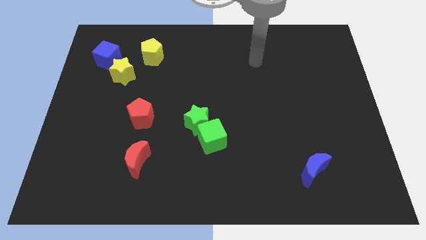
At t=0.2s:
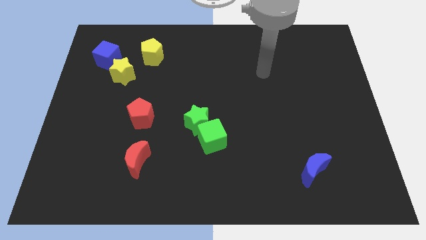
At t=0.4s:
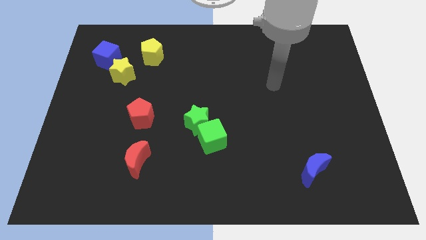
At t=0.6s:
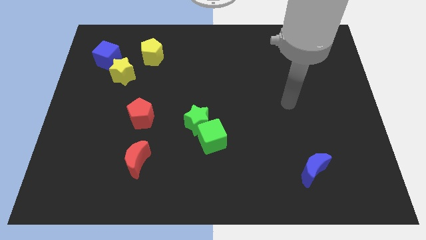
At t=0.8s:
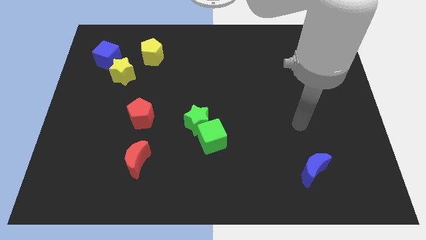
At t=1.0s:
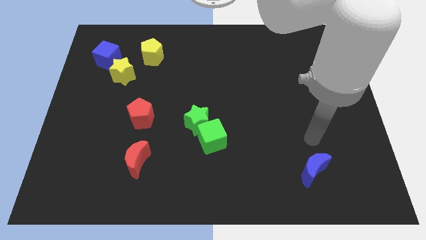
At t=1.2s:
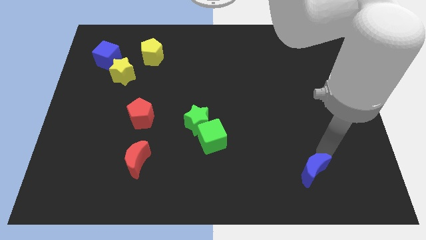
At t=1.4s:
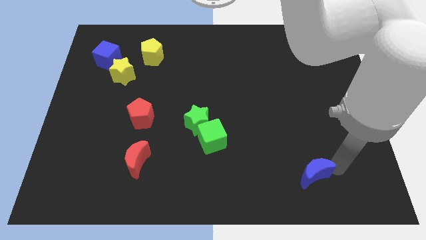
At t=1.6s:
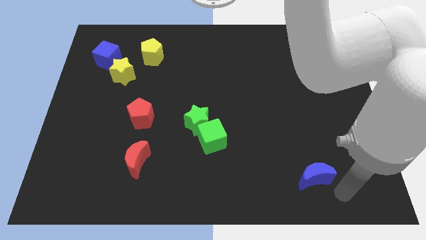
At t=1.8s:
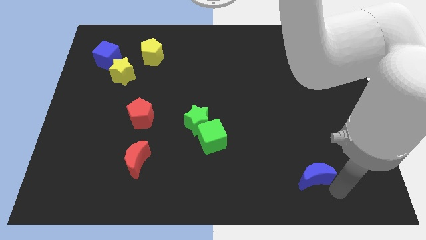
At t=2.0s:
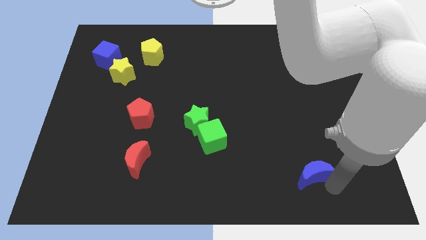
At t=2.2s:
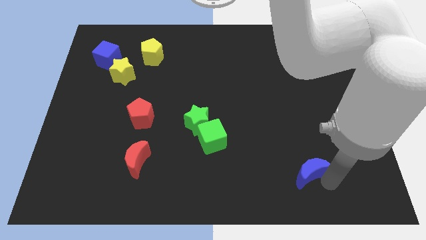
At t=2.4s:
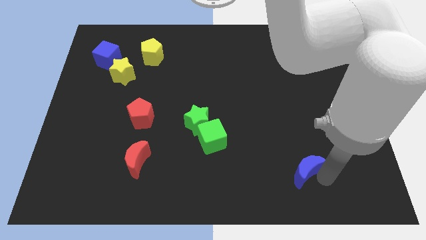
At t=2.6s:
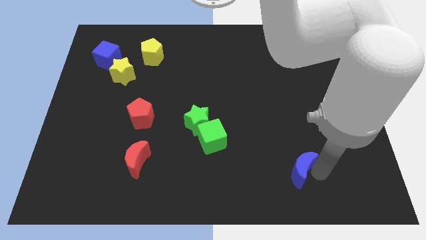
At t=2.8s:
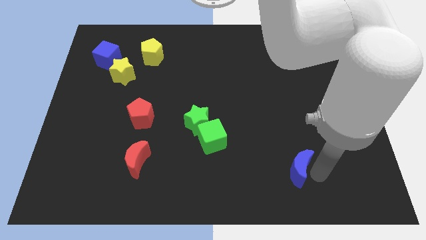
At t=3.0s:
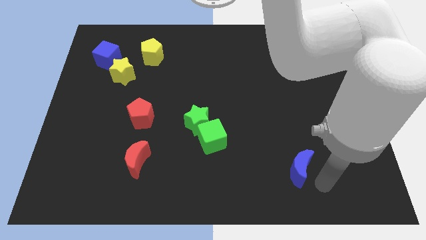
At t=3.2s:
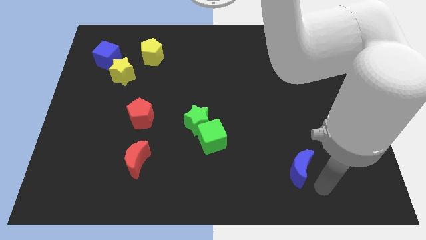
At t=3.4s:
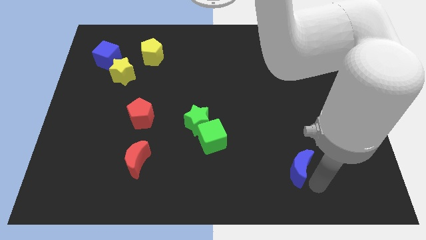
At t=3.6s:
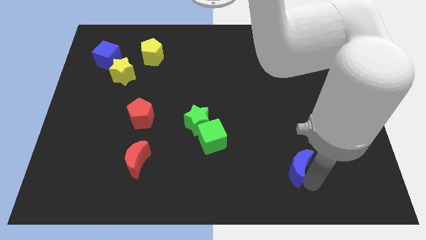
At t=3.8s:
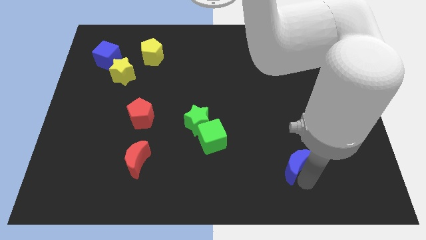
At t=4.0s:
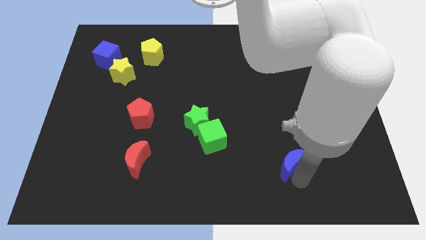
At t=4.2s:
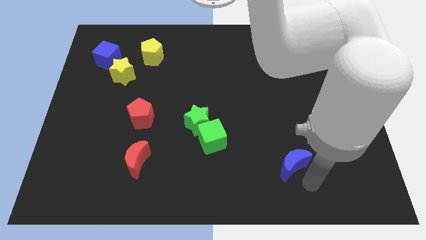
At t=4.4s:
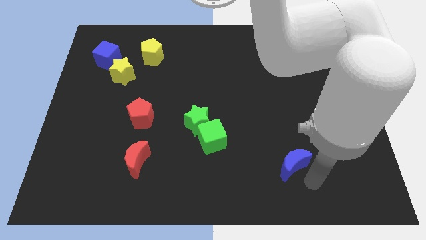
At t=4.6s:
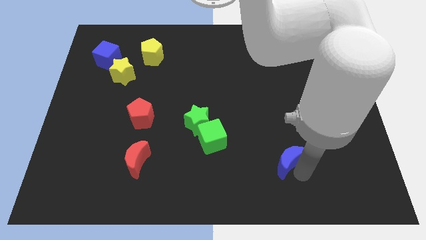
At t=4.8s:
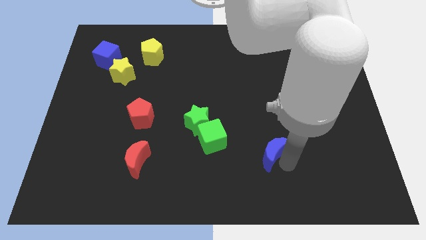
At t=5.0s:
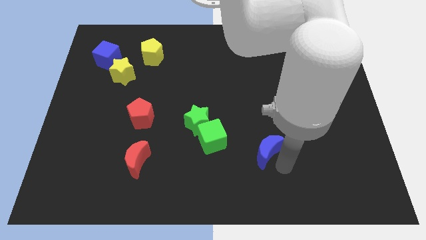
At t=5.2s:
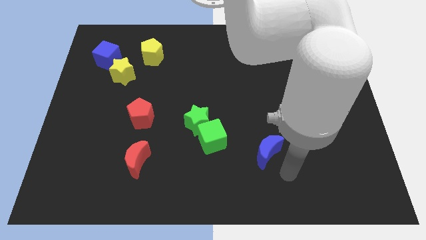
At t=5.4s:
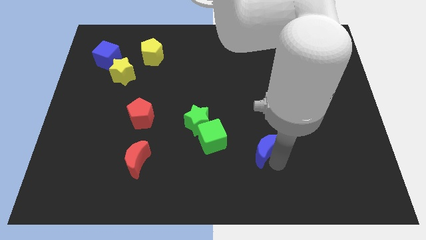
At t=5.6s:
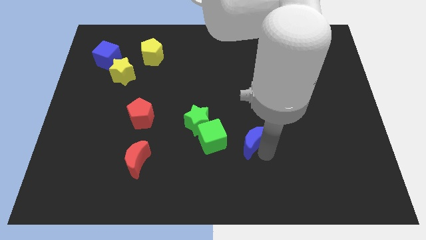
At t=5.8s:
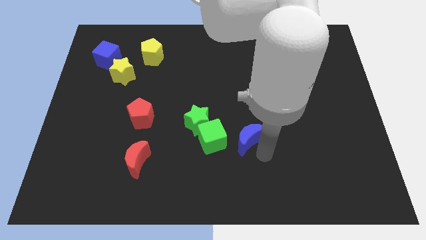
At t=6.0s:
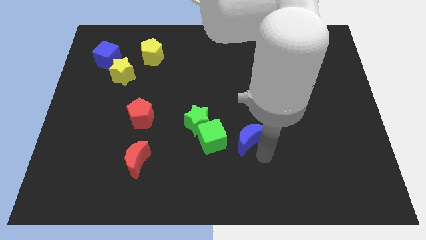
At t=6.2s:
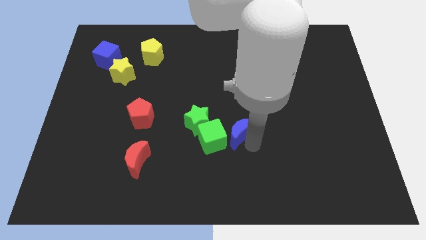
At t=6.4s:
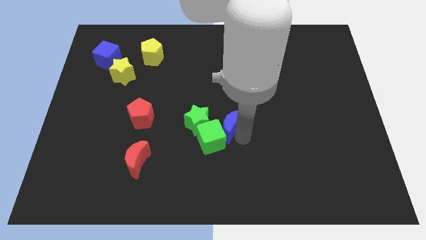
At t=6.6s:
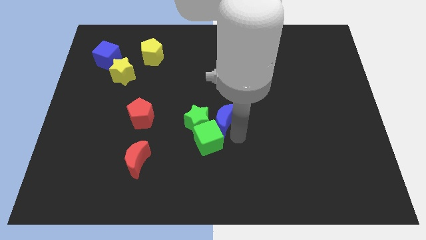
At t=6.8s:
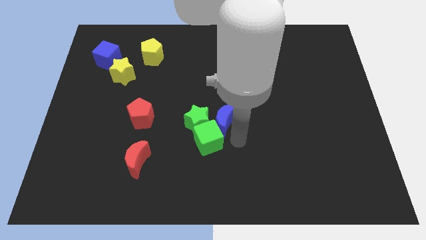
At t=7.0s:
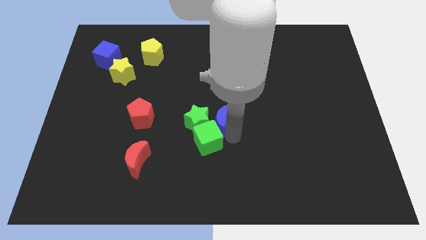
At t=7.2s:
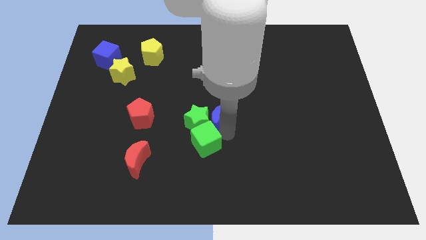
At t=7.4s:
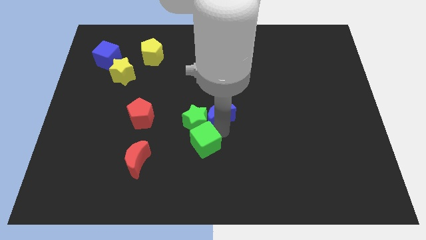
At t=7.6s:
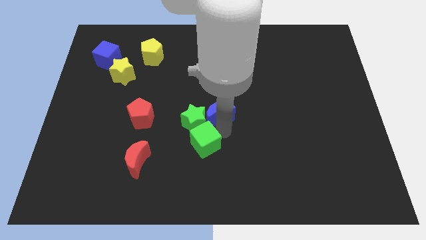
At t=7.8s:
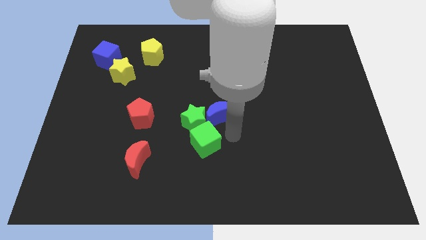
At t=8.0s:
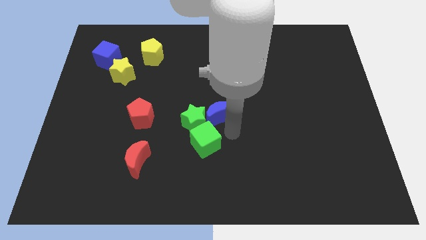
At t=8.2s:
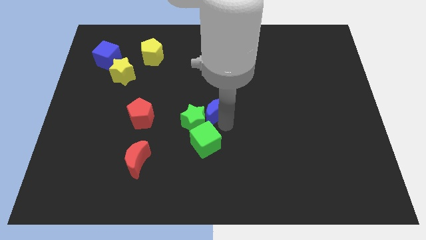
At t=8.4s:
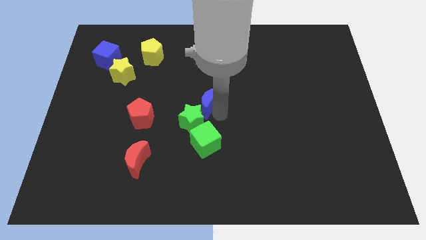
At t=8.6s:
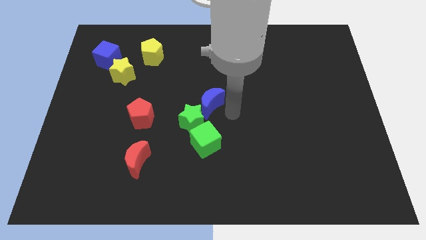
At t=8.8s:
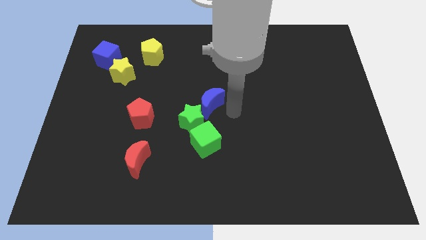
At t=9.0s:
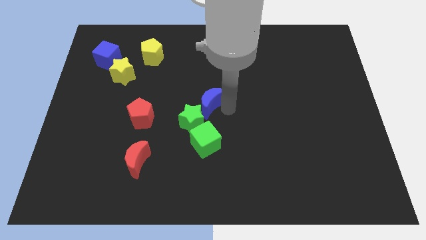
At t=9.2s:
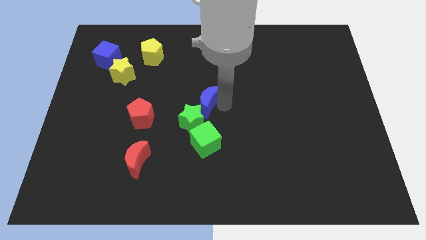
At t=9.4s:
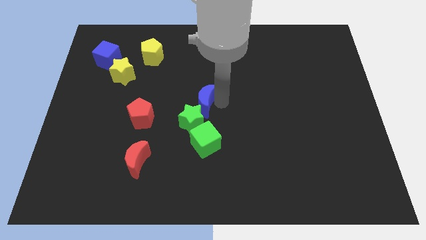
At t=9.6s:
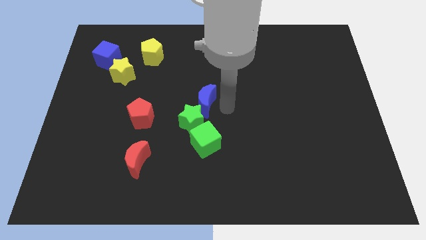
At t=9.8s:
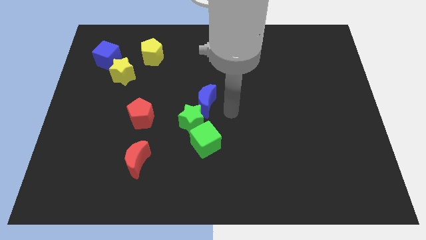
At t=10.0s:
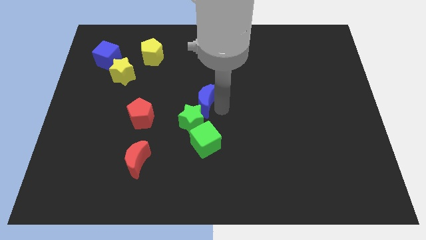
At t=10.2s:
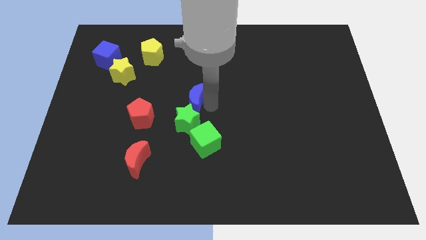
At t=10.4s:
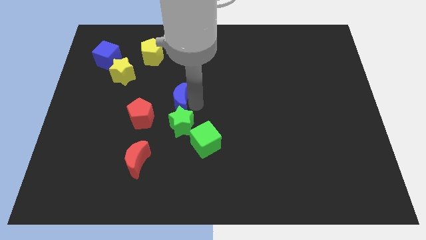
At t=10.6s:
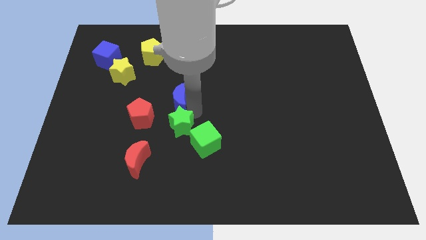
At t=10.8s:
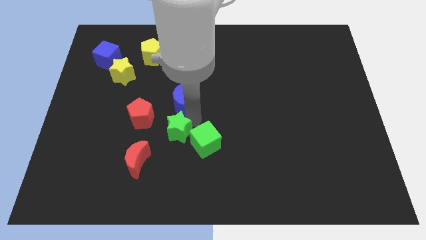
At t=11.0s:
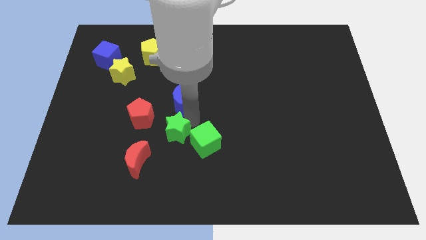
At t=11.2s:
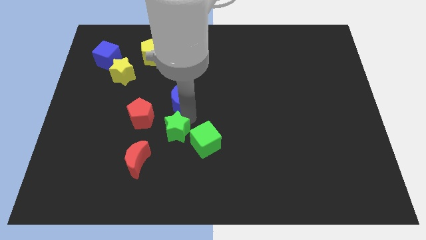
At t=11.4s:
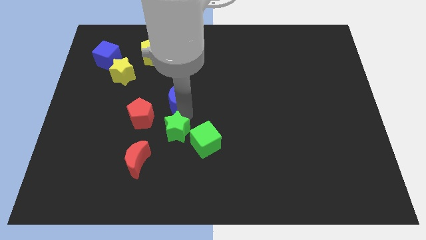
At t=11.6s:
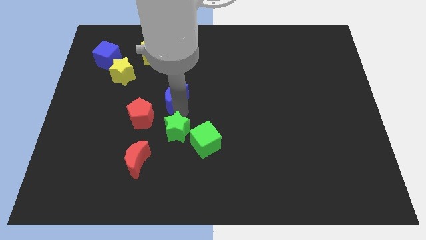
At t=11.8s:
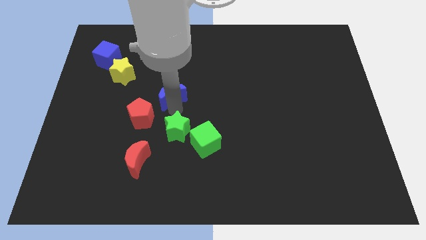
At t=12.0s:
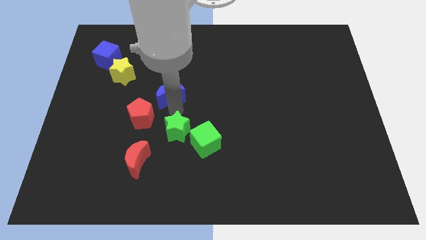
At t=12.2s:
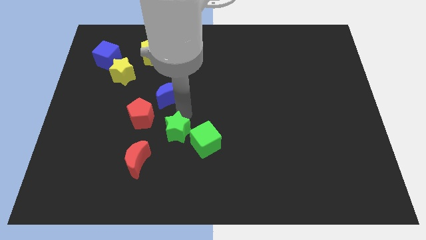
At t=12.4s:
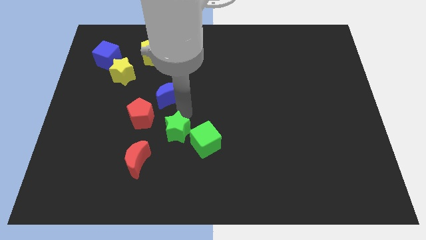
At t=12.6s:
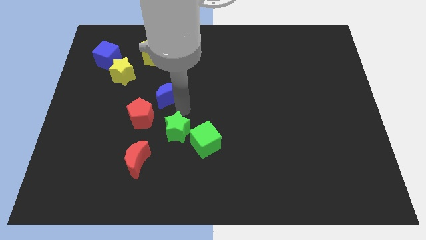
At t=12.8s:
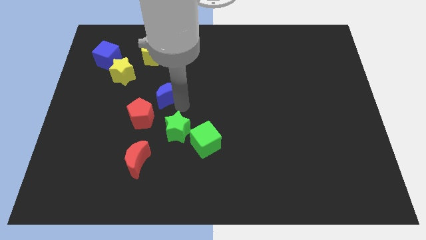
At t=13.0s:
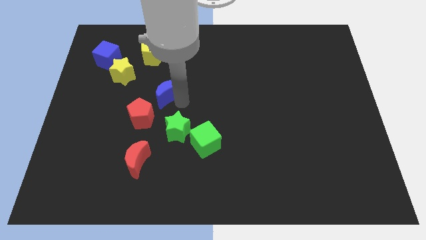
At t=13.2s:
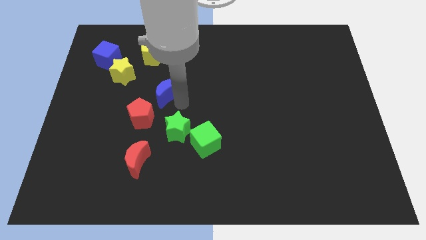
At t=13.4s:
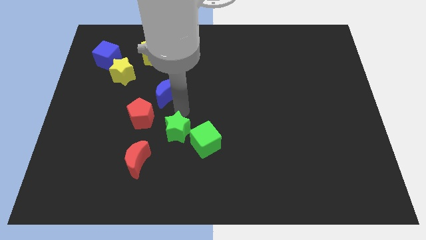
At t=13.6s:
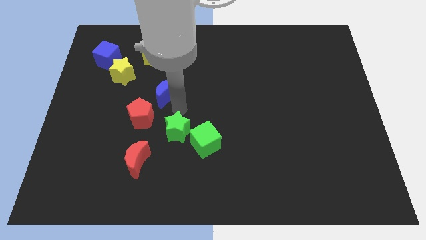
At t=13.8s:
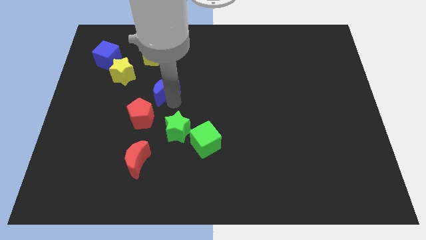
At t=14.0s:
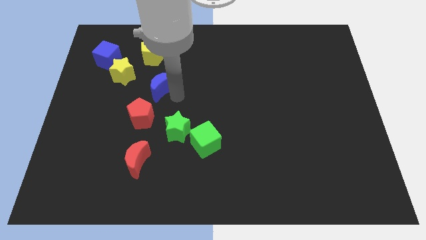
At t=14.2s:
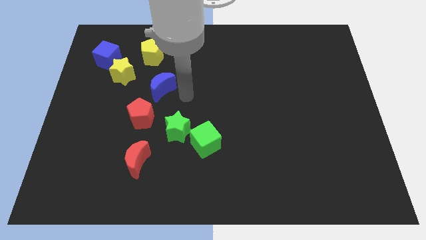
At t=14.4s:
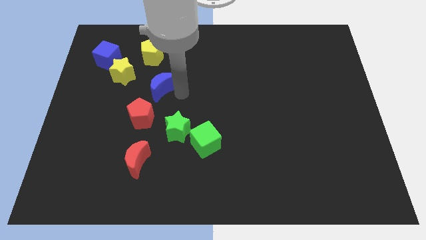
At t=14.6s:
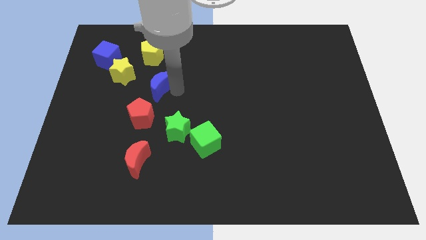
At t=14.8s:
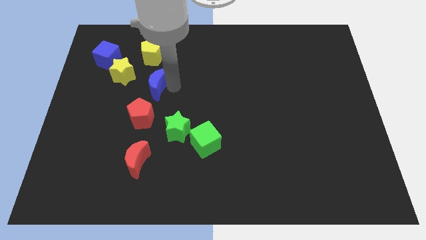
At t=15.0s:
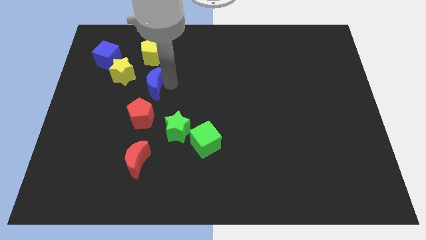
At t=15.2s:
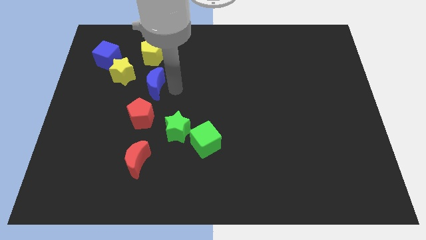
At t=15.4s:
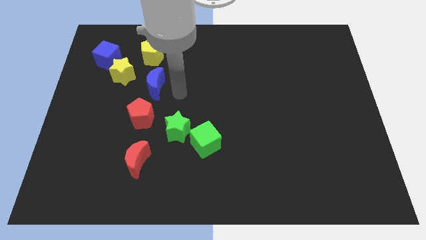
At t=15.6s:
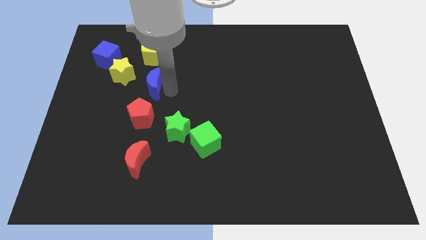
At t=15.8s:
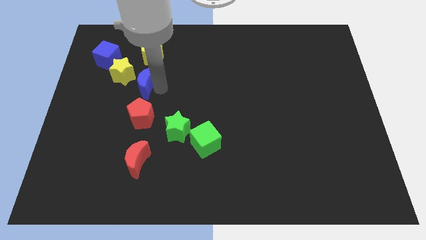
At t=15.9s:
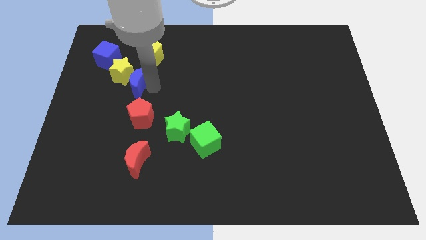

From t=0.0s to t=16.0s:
move the blue moon close to the yellow star
